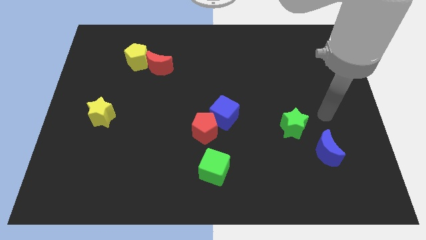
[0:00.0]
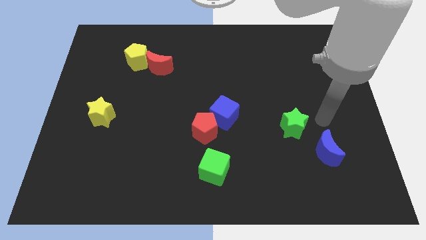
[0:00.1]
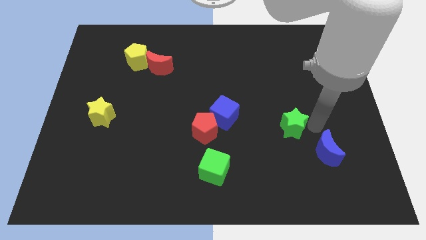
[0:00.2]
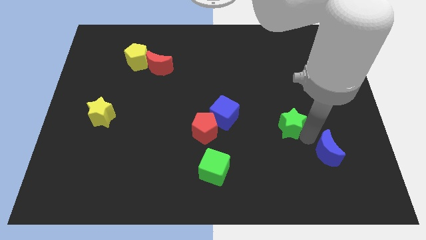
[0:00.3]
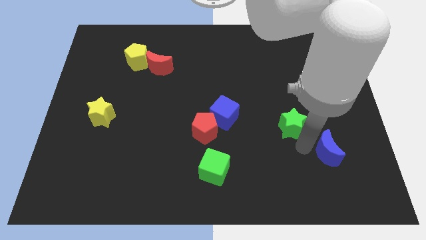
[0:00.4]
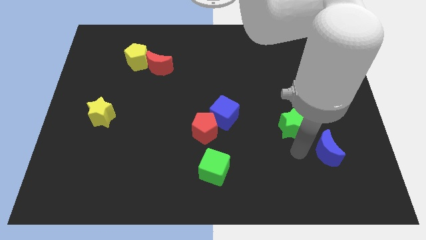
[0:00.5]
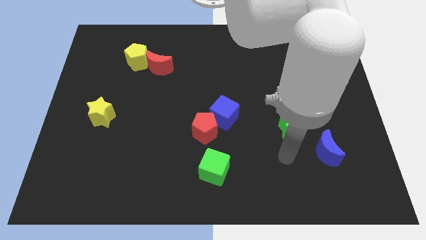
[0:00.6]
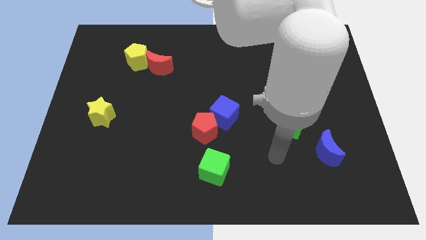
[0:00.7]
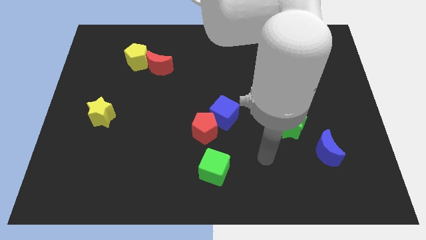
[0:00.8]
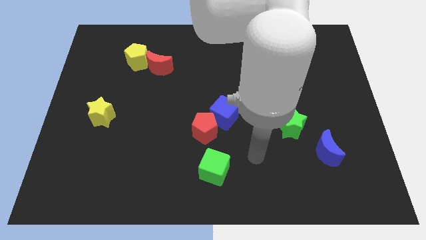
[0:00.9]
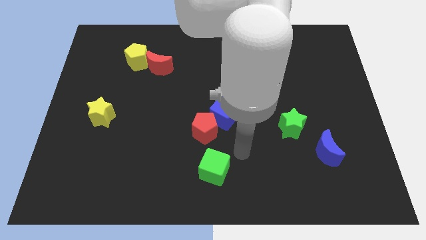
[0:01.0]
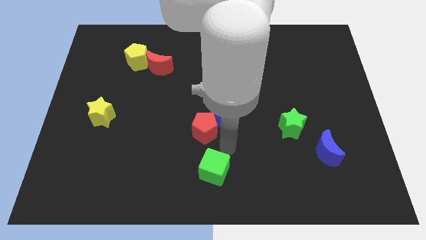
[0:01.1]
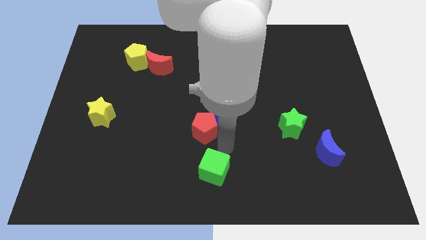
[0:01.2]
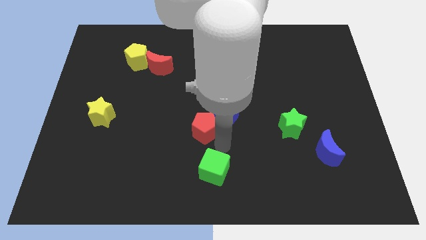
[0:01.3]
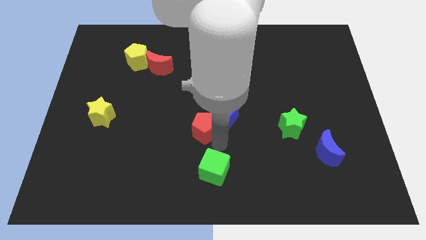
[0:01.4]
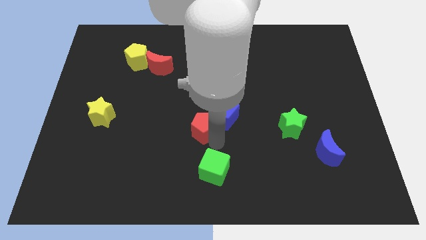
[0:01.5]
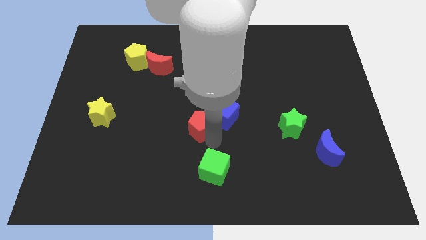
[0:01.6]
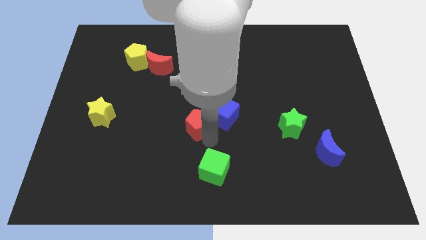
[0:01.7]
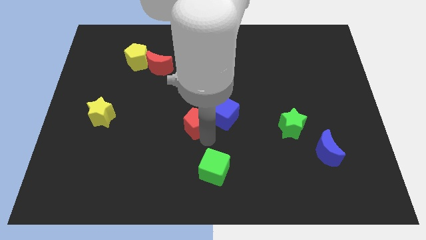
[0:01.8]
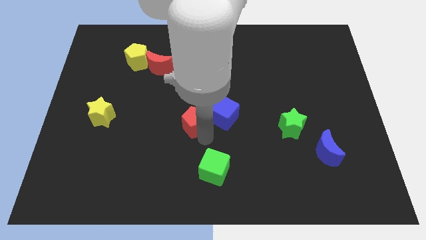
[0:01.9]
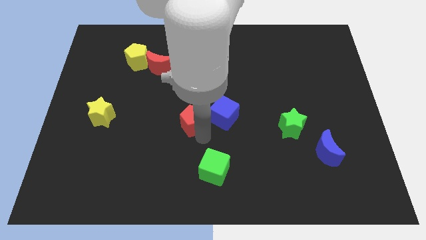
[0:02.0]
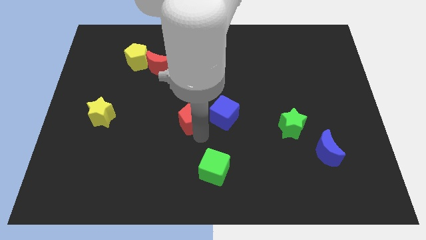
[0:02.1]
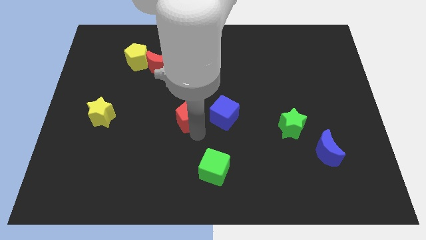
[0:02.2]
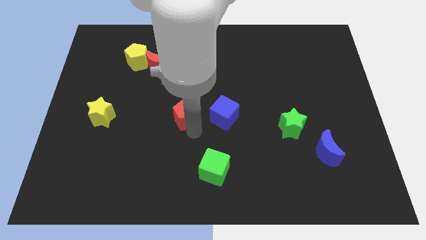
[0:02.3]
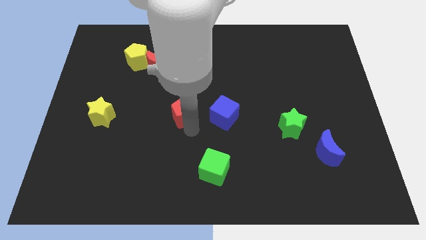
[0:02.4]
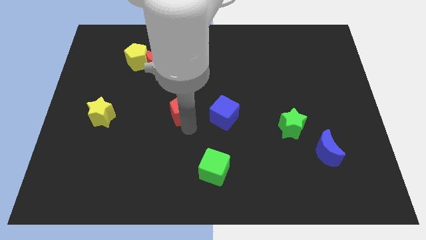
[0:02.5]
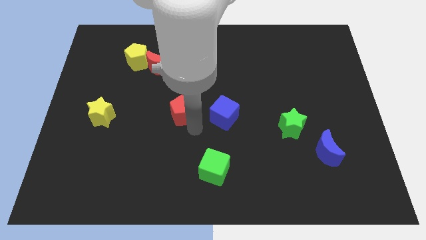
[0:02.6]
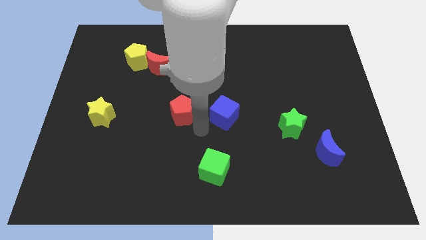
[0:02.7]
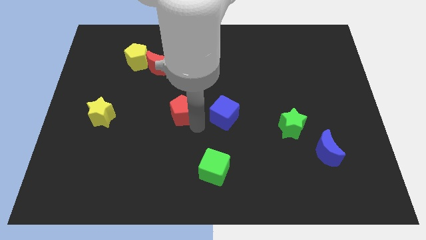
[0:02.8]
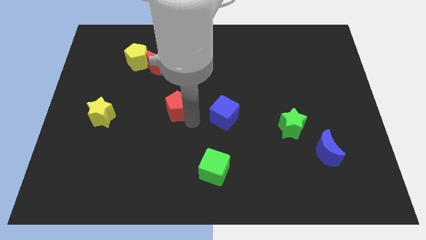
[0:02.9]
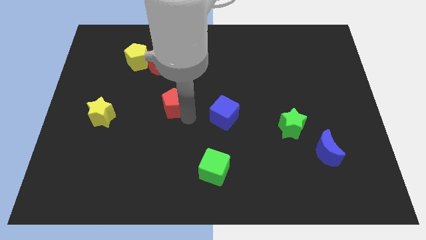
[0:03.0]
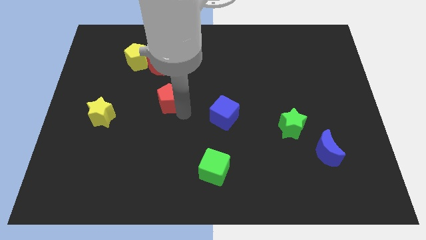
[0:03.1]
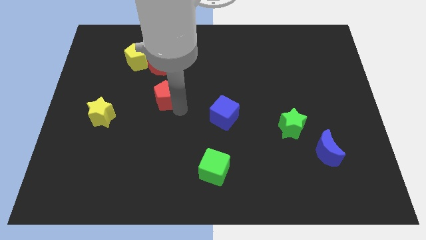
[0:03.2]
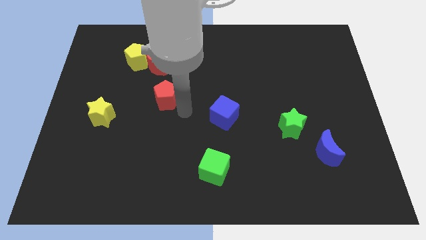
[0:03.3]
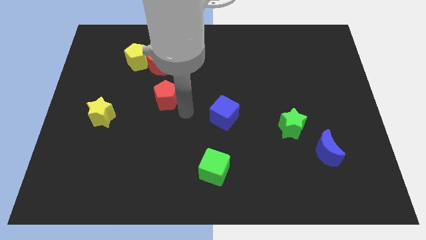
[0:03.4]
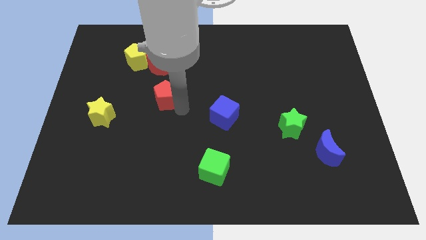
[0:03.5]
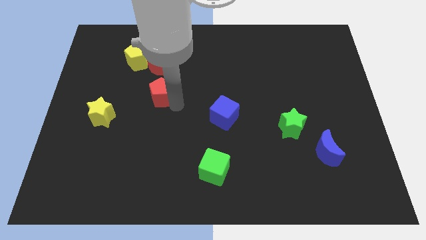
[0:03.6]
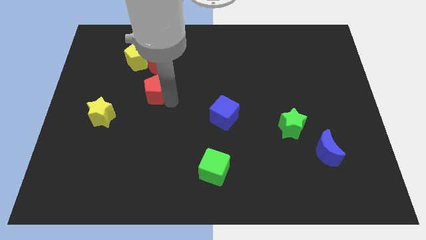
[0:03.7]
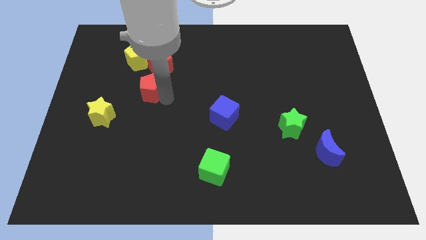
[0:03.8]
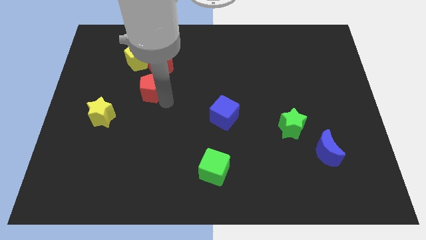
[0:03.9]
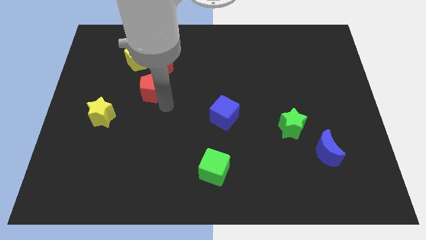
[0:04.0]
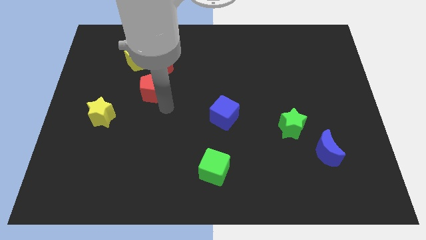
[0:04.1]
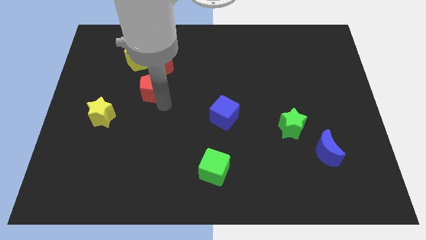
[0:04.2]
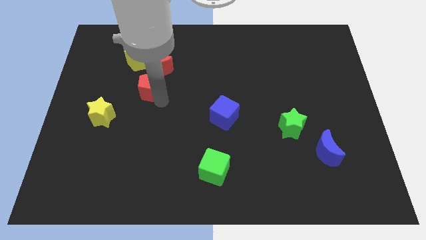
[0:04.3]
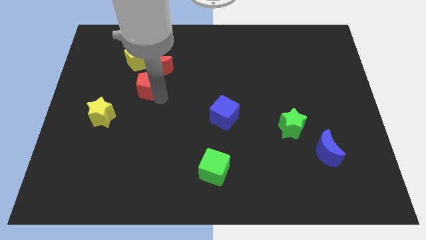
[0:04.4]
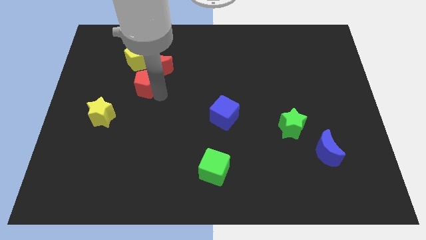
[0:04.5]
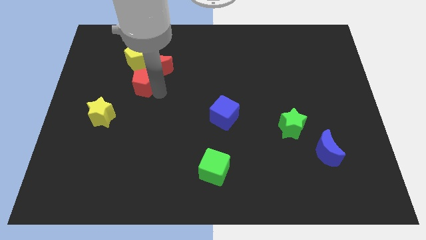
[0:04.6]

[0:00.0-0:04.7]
slide the red pentagon upwards and to the left

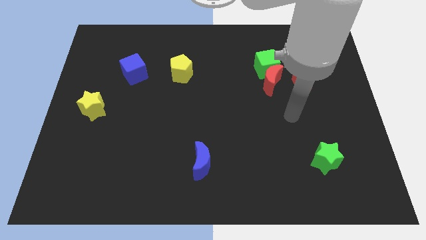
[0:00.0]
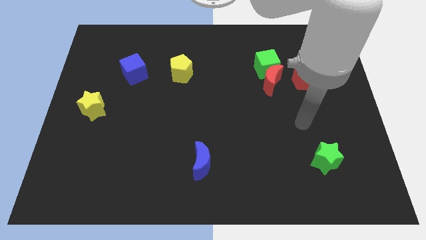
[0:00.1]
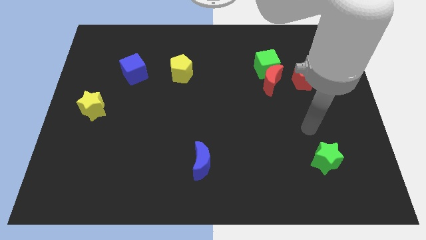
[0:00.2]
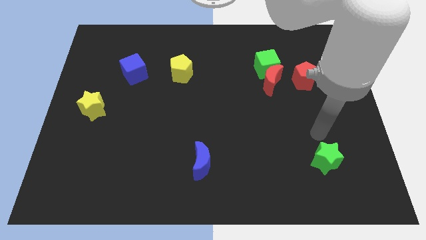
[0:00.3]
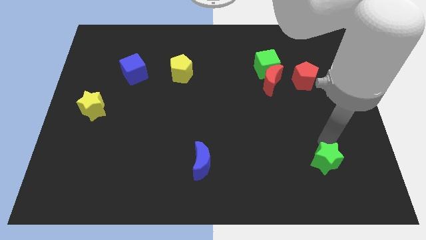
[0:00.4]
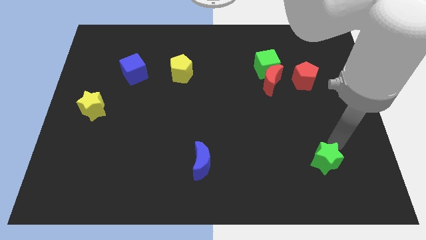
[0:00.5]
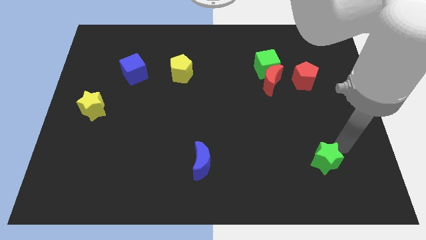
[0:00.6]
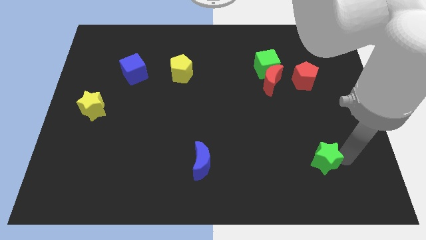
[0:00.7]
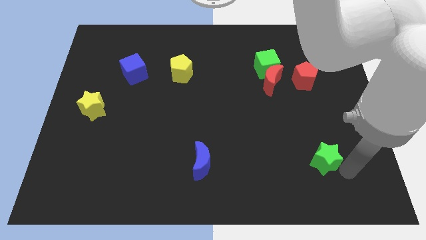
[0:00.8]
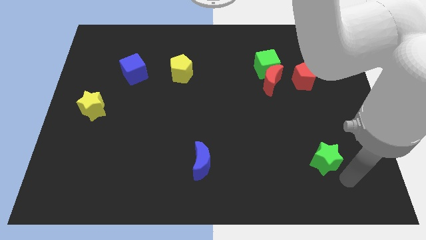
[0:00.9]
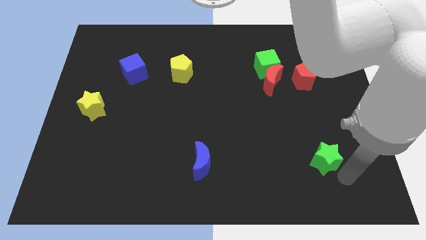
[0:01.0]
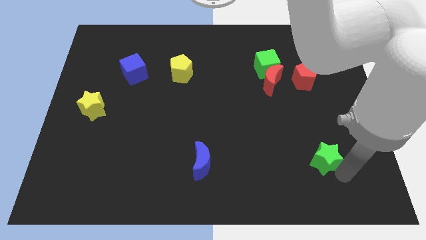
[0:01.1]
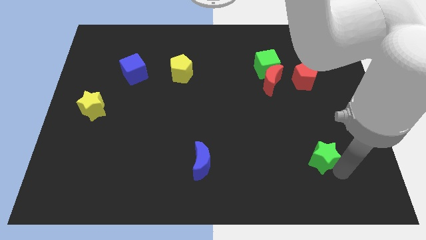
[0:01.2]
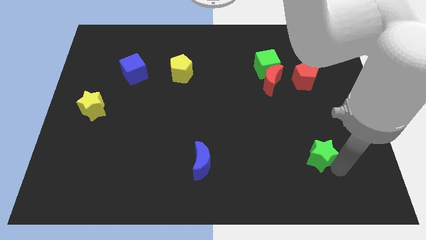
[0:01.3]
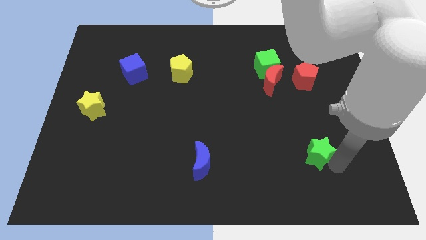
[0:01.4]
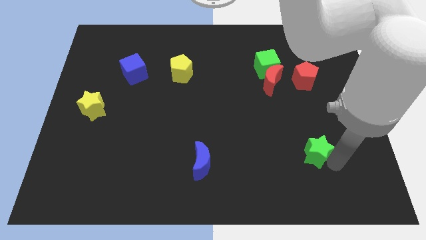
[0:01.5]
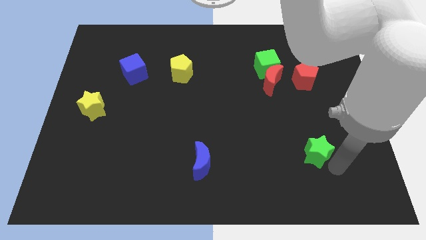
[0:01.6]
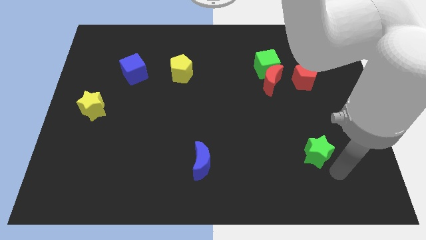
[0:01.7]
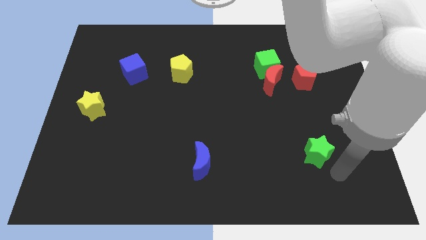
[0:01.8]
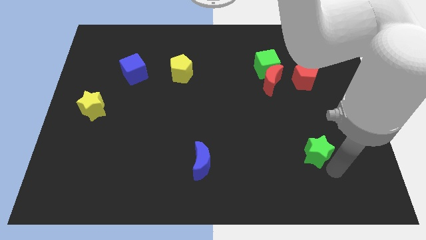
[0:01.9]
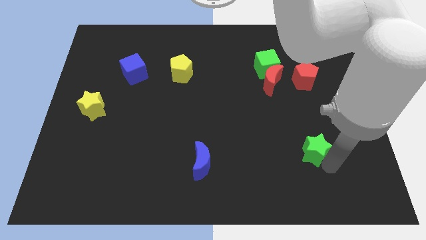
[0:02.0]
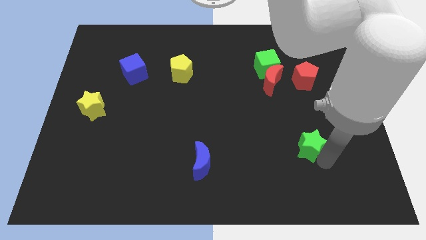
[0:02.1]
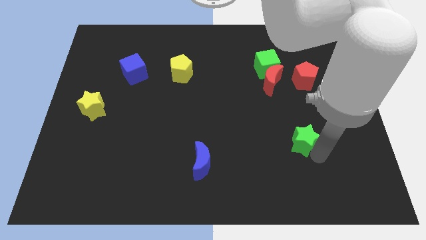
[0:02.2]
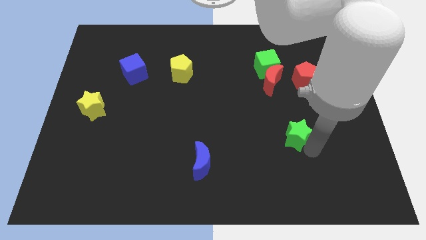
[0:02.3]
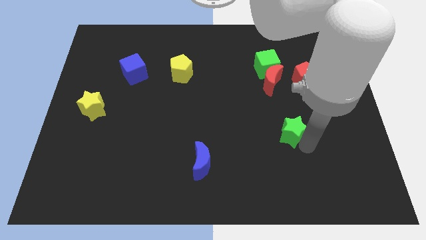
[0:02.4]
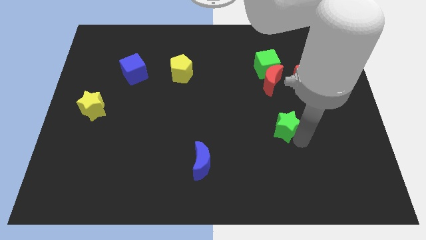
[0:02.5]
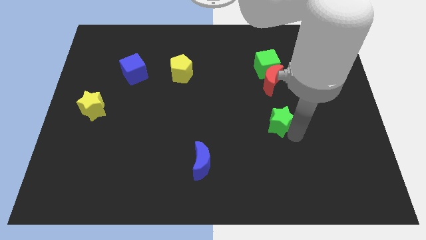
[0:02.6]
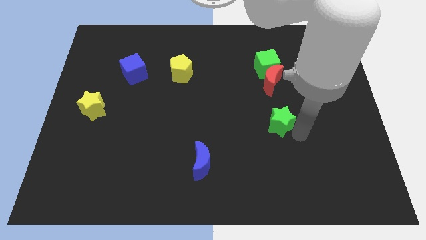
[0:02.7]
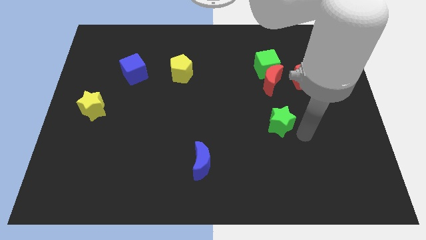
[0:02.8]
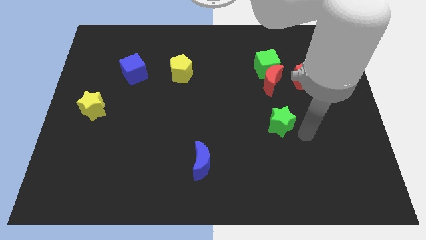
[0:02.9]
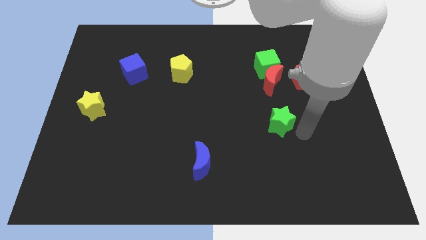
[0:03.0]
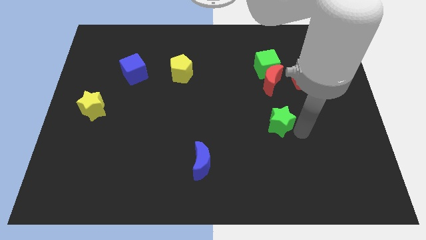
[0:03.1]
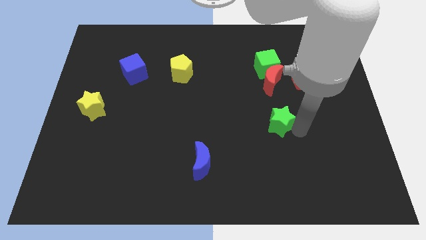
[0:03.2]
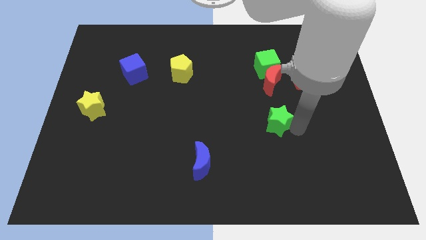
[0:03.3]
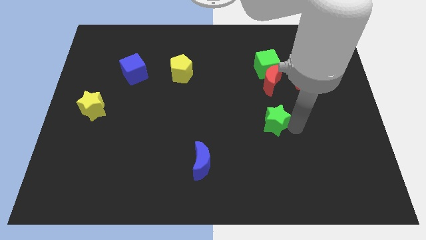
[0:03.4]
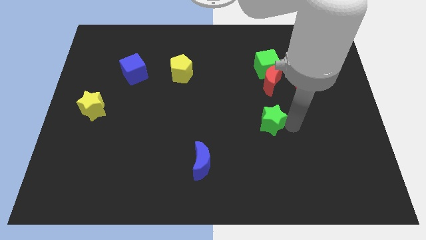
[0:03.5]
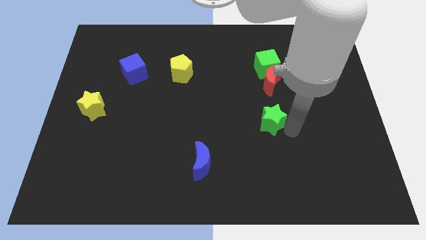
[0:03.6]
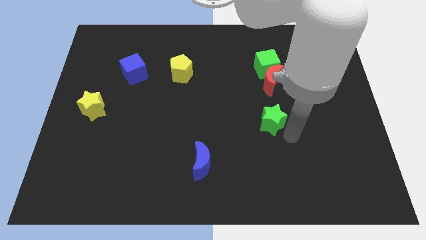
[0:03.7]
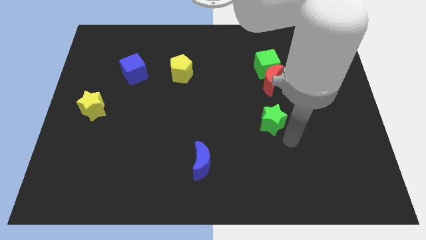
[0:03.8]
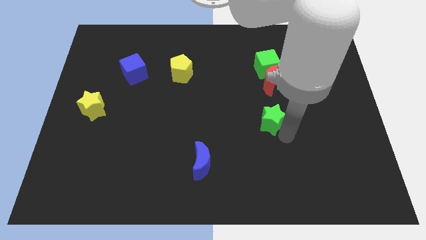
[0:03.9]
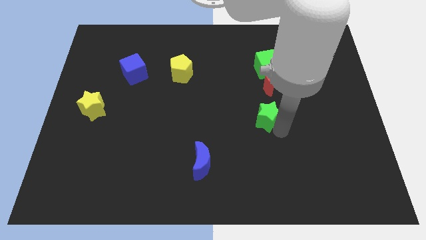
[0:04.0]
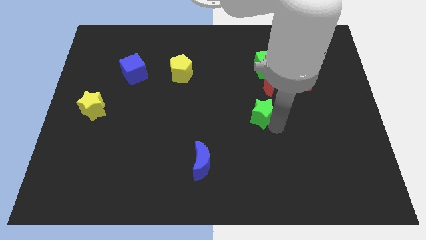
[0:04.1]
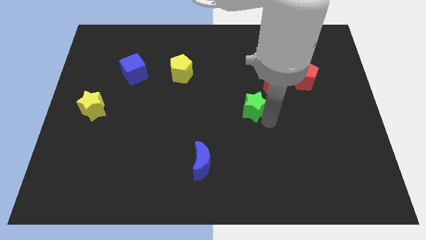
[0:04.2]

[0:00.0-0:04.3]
move the green star up and to the left diagonally
